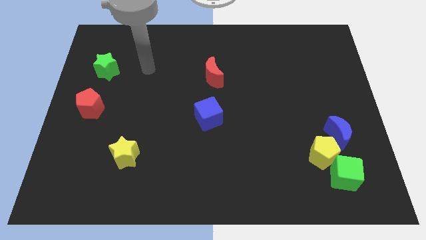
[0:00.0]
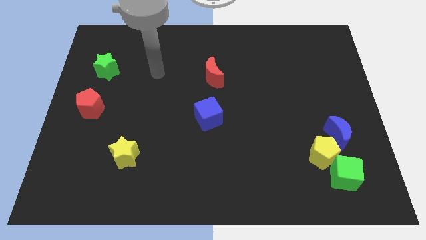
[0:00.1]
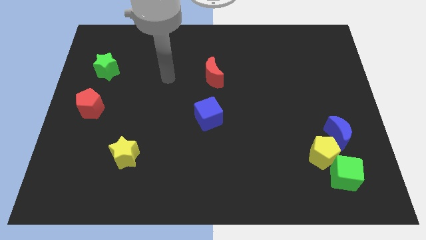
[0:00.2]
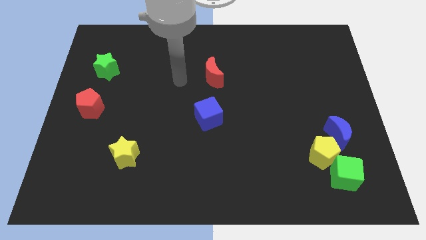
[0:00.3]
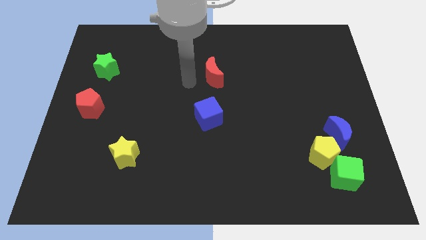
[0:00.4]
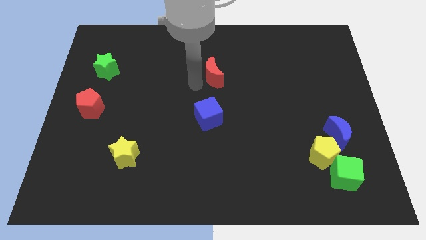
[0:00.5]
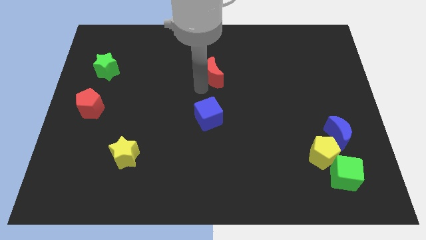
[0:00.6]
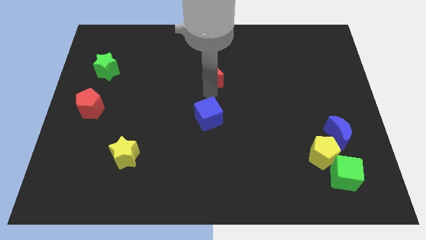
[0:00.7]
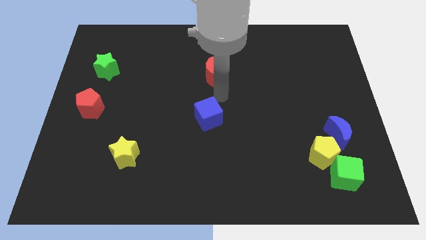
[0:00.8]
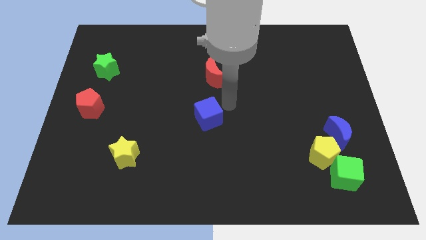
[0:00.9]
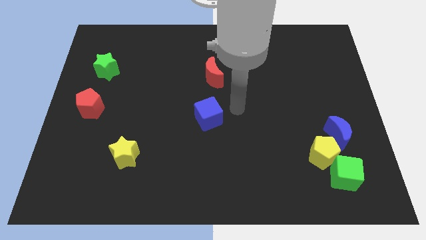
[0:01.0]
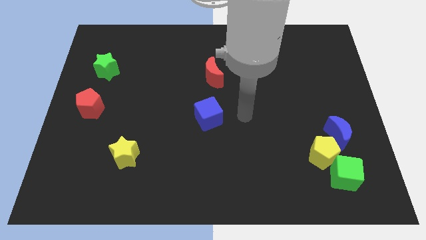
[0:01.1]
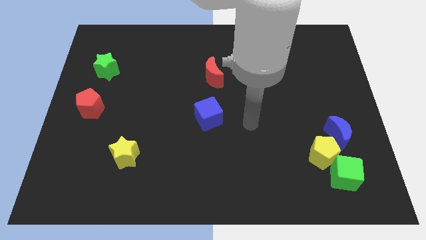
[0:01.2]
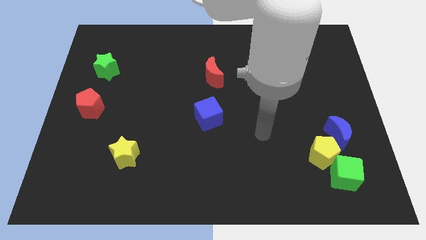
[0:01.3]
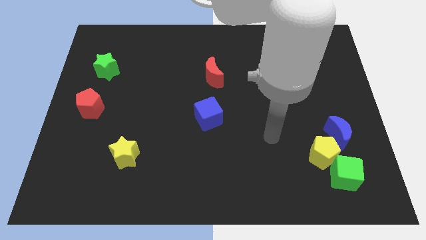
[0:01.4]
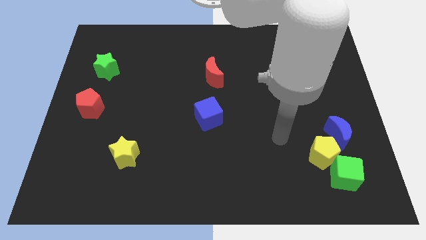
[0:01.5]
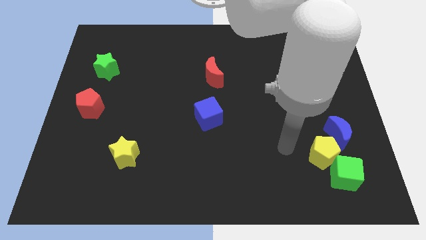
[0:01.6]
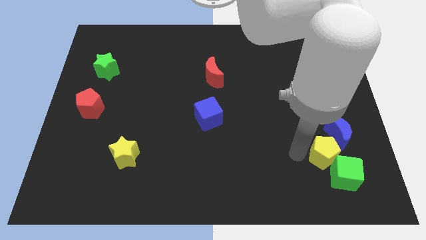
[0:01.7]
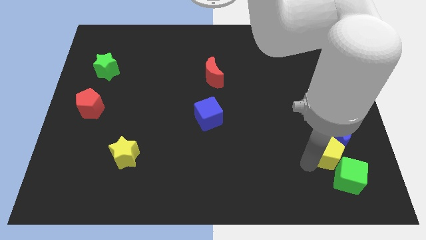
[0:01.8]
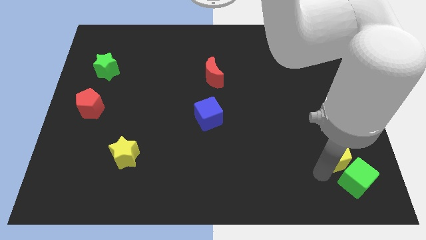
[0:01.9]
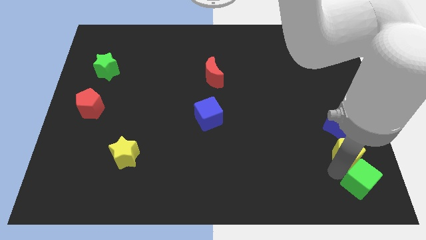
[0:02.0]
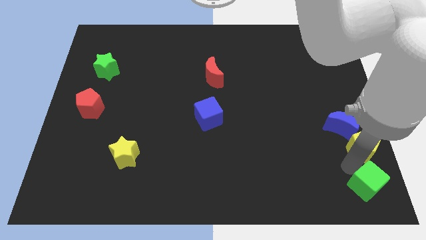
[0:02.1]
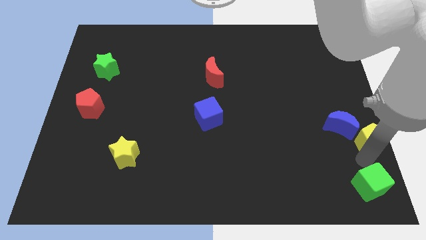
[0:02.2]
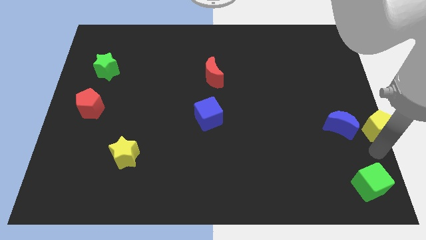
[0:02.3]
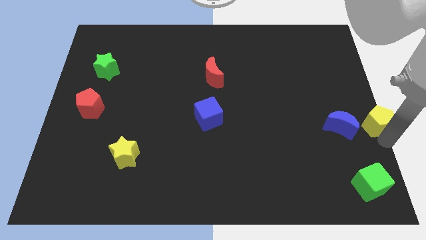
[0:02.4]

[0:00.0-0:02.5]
move the yellow pentagon away from the green cube and blue moon

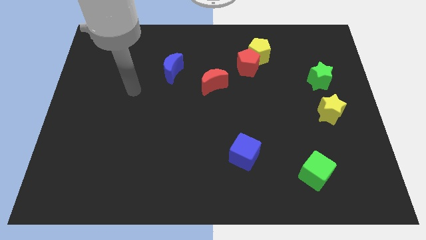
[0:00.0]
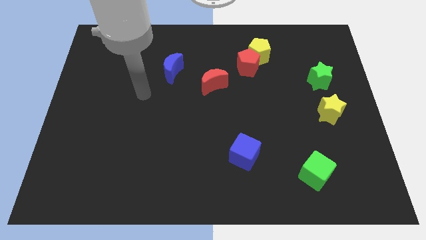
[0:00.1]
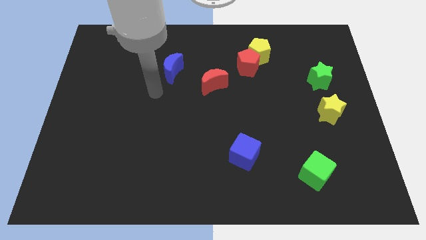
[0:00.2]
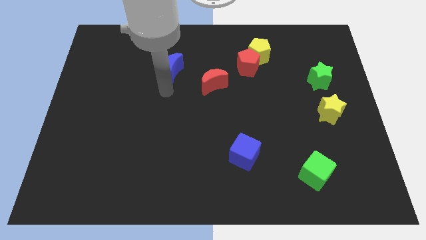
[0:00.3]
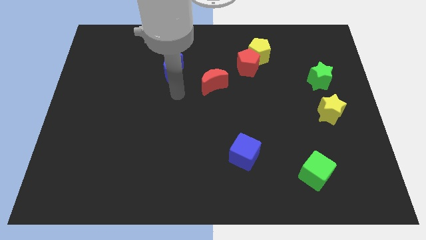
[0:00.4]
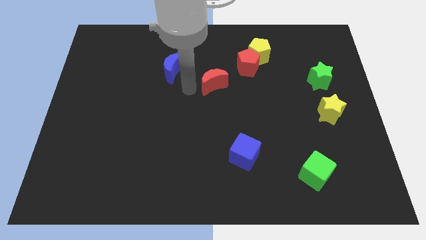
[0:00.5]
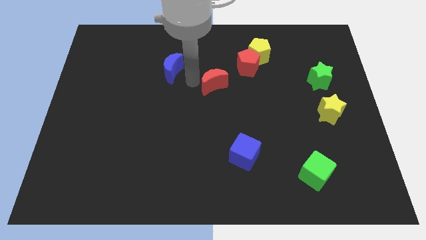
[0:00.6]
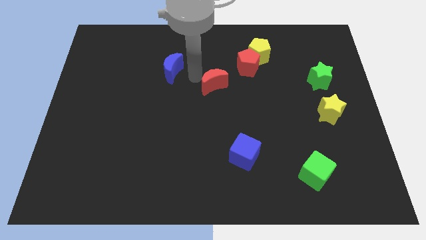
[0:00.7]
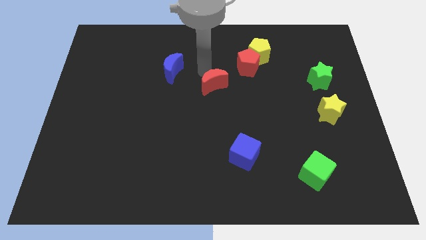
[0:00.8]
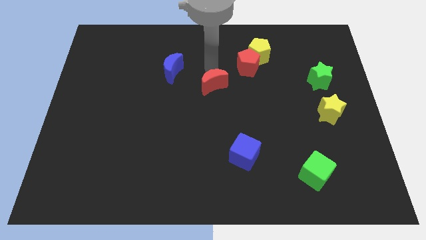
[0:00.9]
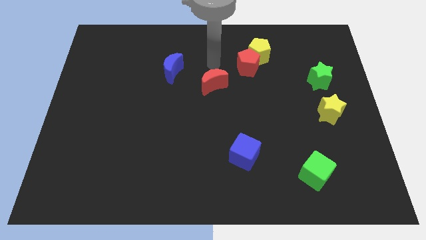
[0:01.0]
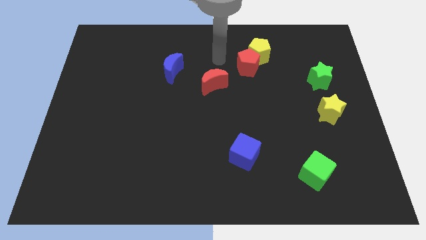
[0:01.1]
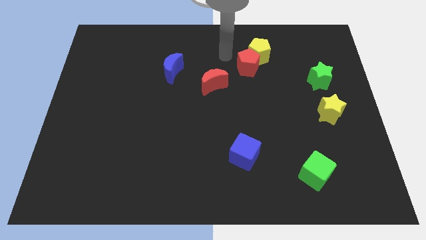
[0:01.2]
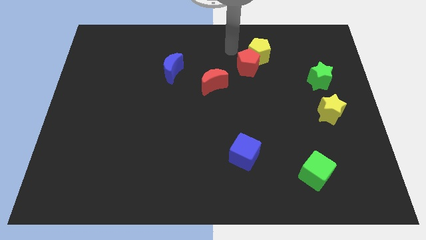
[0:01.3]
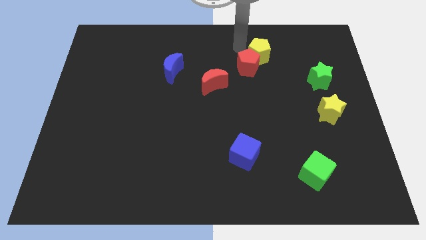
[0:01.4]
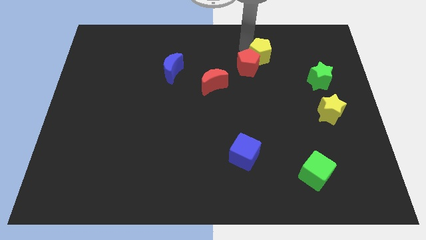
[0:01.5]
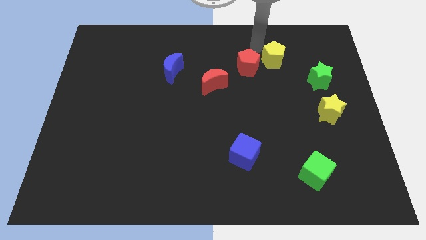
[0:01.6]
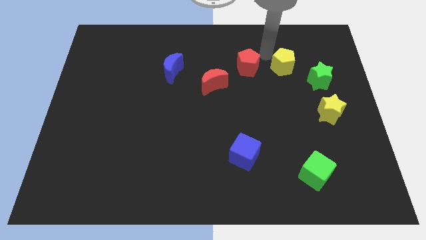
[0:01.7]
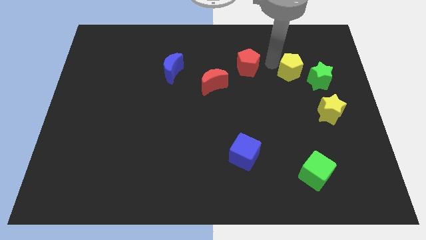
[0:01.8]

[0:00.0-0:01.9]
separate the red pentagon from the yellow pentagon

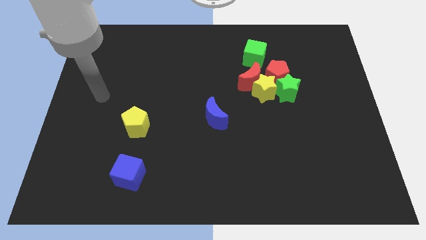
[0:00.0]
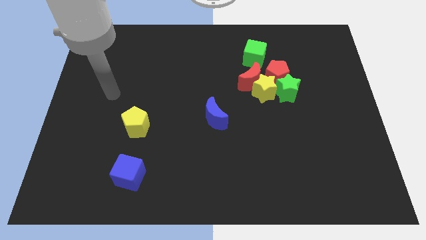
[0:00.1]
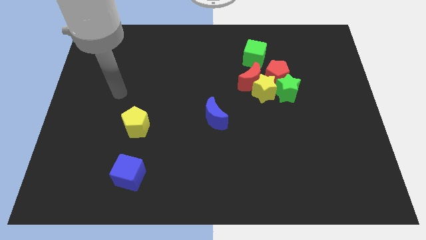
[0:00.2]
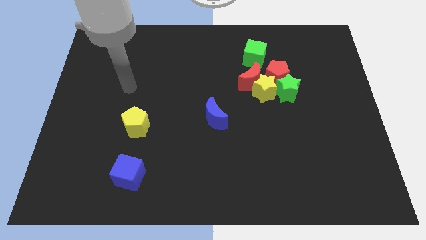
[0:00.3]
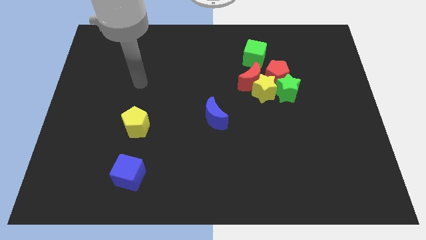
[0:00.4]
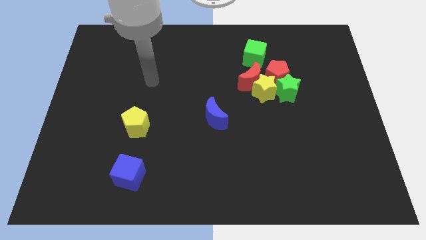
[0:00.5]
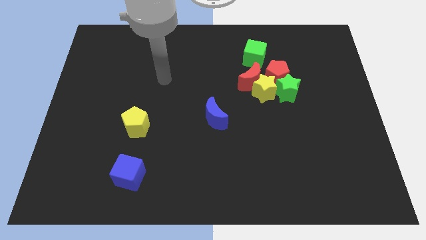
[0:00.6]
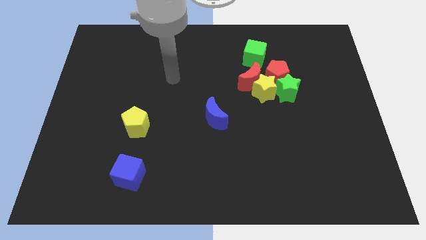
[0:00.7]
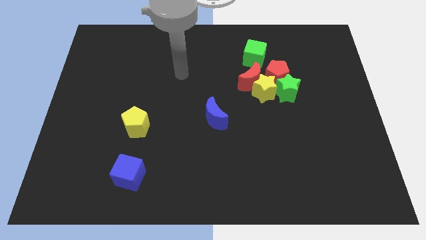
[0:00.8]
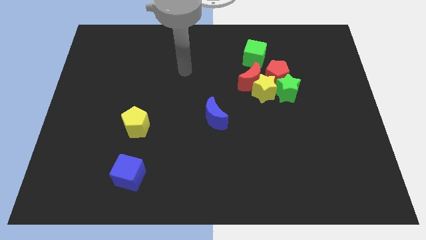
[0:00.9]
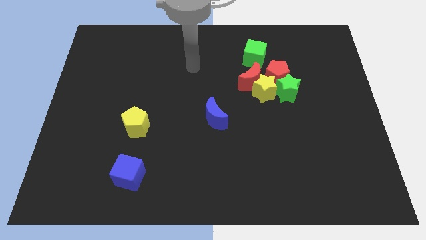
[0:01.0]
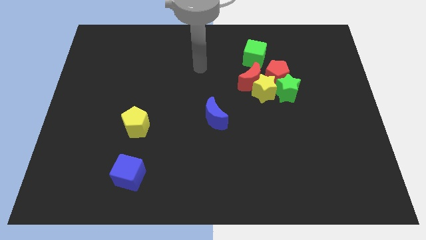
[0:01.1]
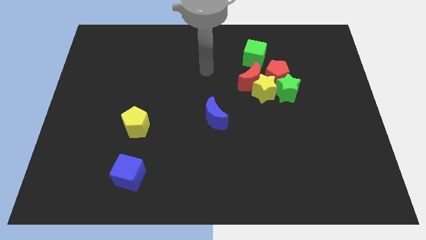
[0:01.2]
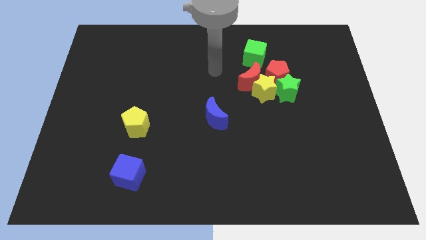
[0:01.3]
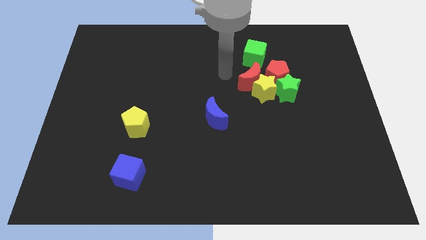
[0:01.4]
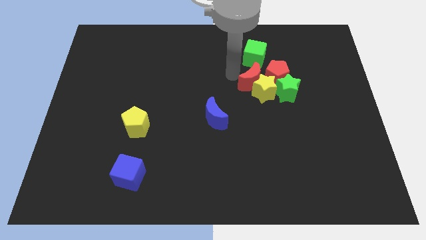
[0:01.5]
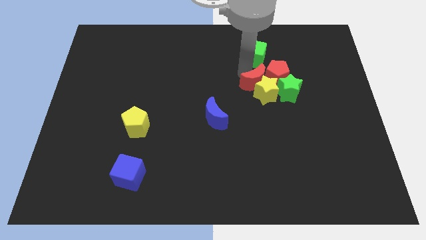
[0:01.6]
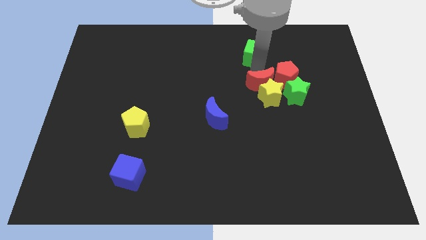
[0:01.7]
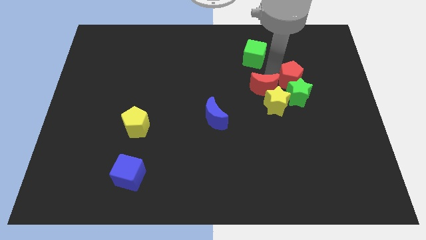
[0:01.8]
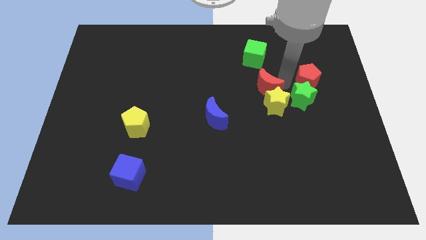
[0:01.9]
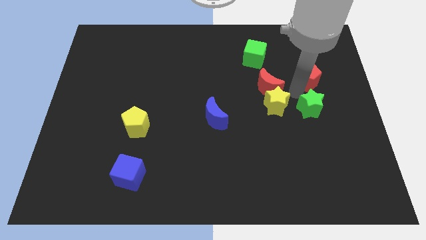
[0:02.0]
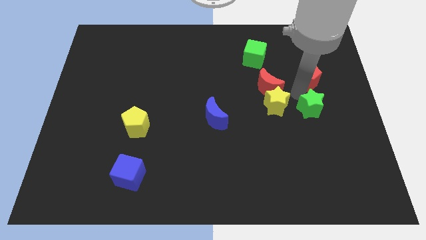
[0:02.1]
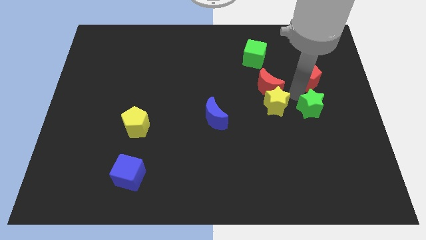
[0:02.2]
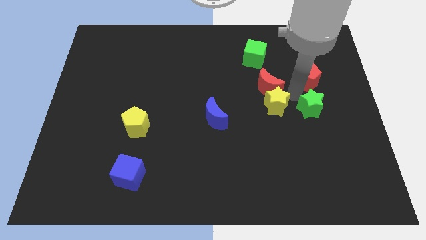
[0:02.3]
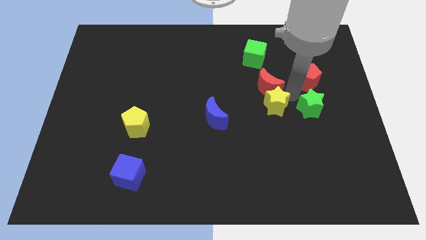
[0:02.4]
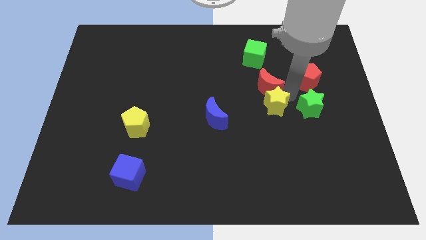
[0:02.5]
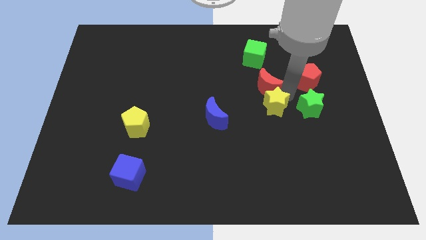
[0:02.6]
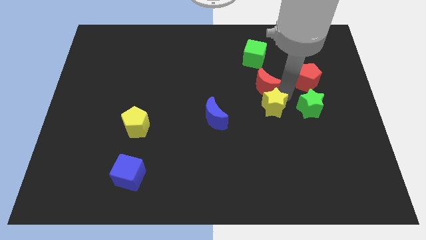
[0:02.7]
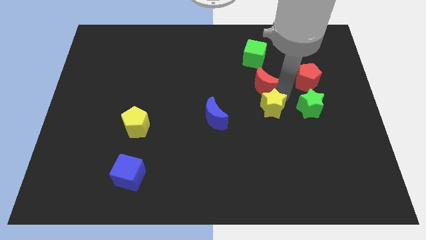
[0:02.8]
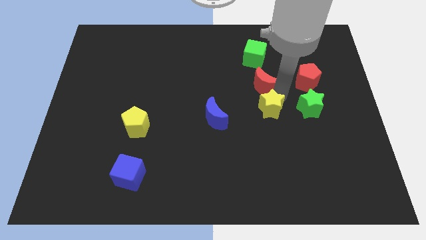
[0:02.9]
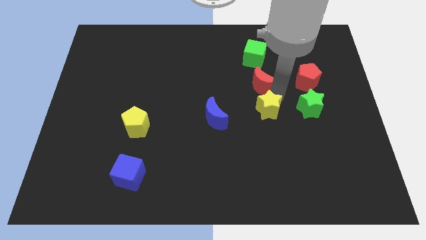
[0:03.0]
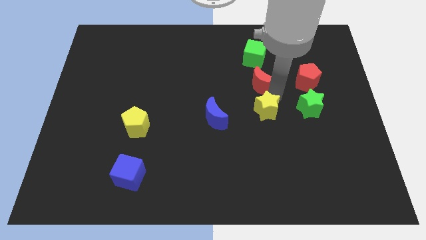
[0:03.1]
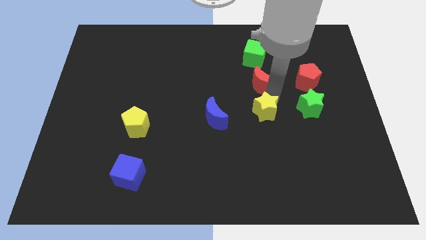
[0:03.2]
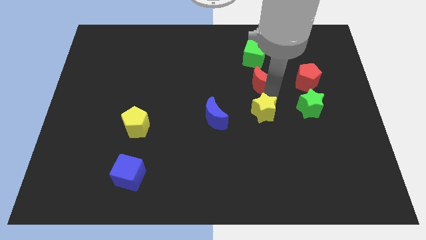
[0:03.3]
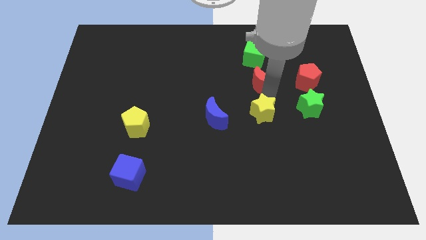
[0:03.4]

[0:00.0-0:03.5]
pull the yellow star apart from the group

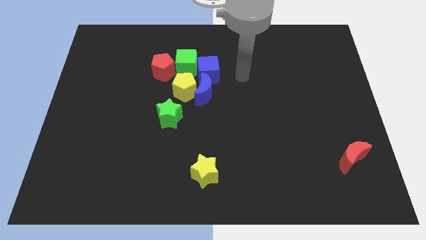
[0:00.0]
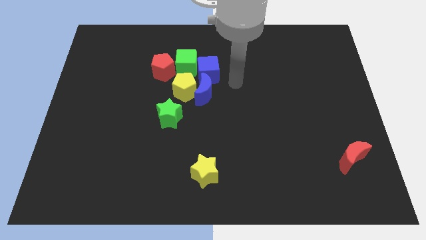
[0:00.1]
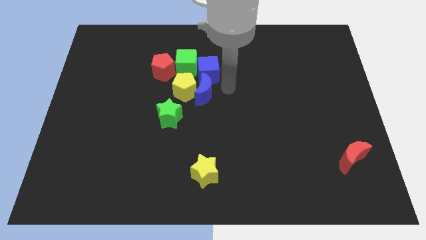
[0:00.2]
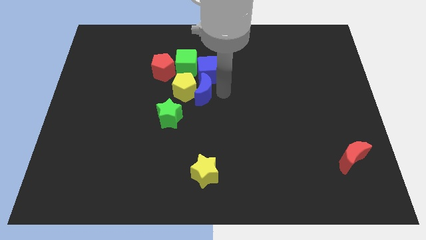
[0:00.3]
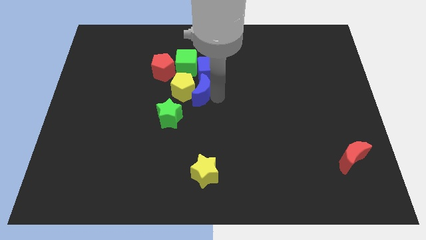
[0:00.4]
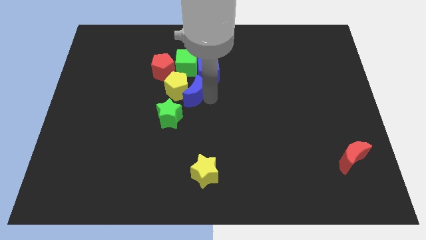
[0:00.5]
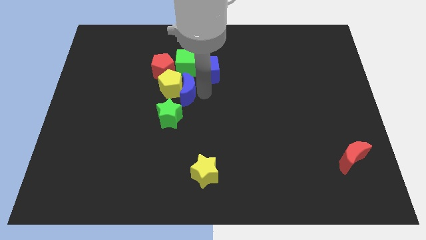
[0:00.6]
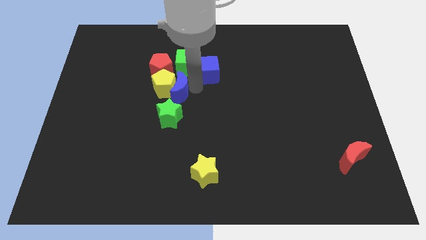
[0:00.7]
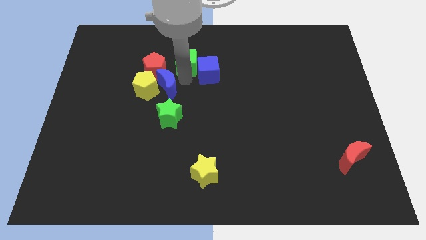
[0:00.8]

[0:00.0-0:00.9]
move the blue cube away from the green cube, blue moon, and yellow pentagon

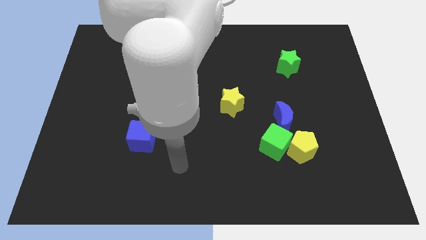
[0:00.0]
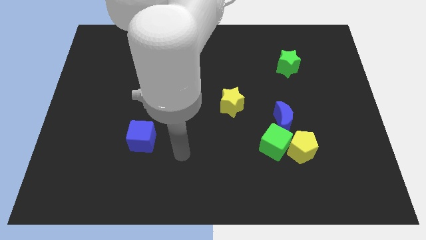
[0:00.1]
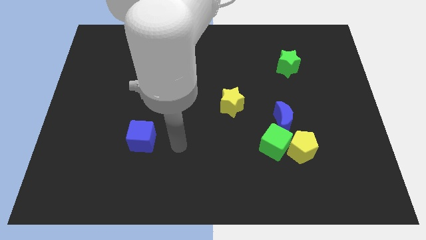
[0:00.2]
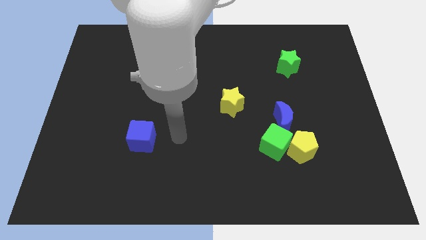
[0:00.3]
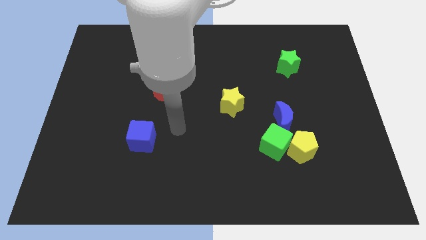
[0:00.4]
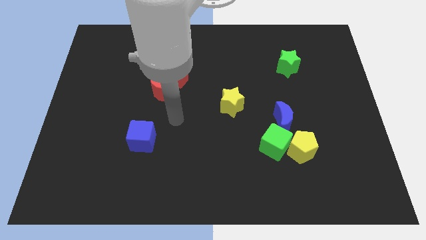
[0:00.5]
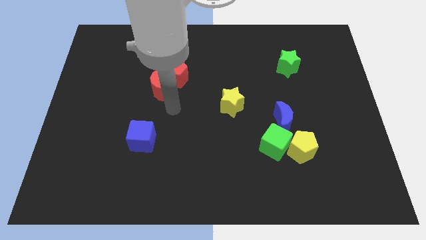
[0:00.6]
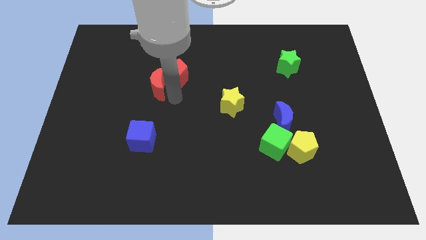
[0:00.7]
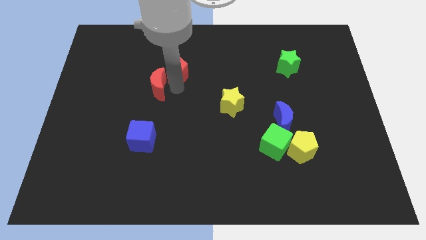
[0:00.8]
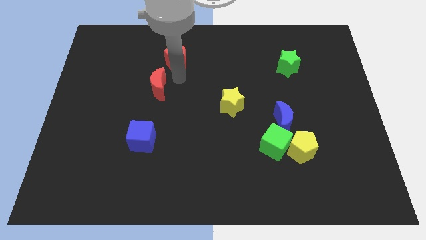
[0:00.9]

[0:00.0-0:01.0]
separate the red moon from the red pentagon
